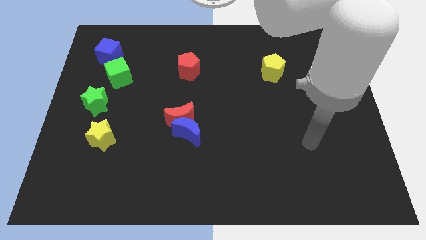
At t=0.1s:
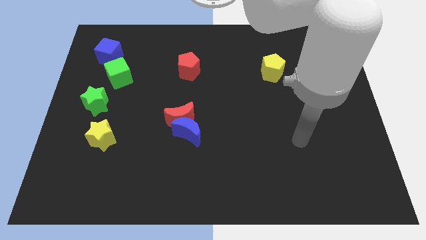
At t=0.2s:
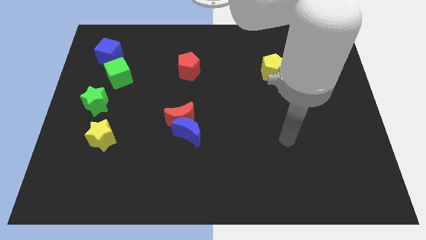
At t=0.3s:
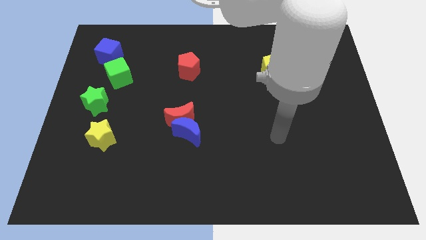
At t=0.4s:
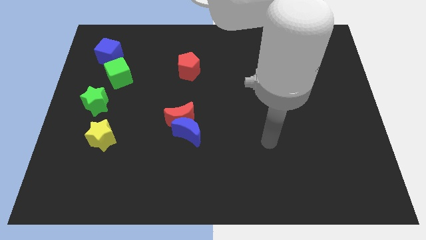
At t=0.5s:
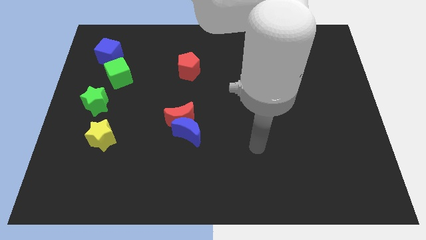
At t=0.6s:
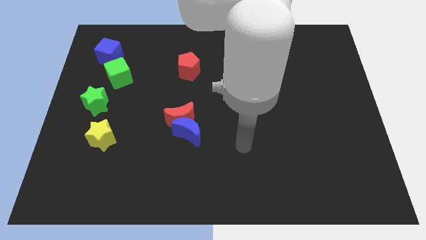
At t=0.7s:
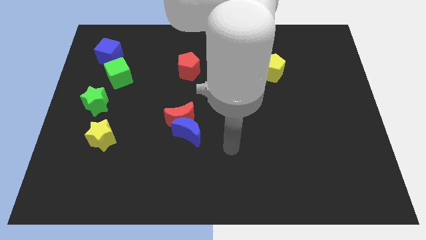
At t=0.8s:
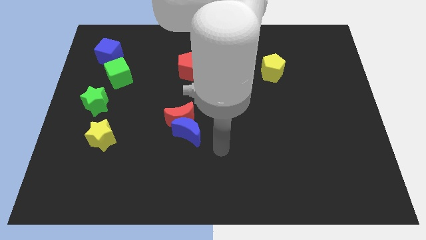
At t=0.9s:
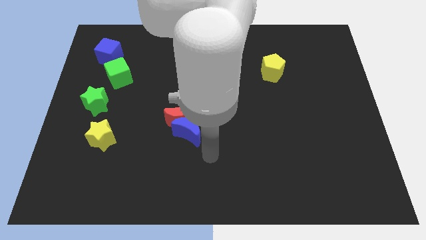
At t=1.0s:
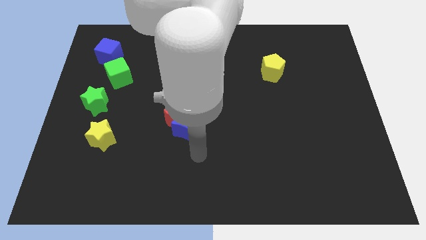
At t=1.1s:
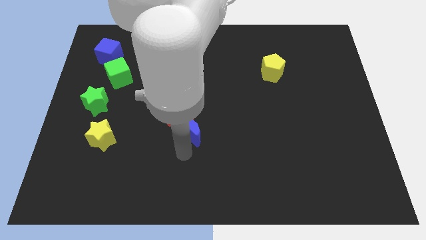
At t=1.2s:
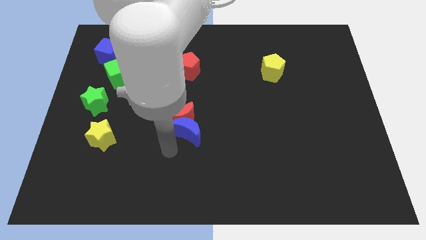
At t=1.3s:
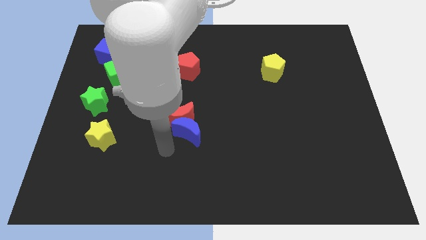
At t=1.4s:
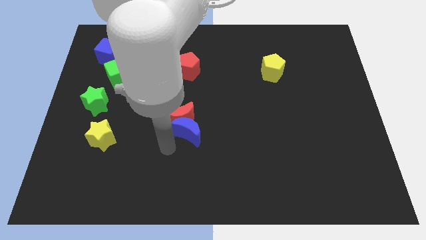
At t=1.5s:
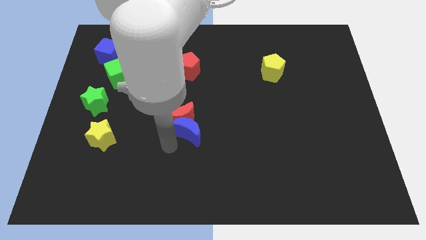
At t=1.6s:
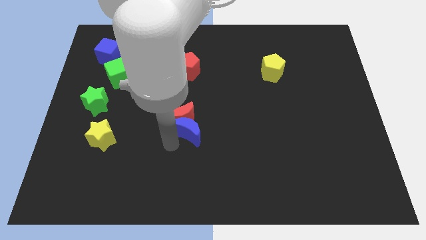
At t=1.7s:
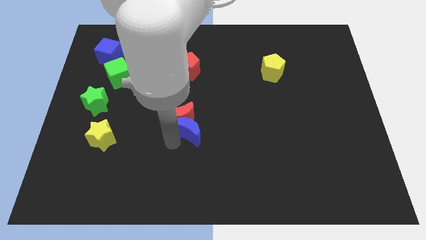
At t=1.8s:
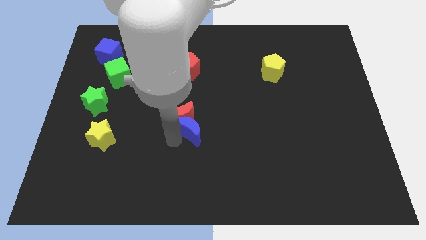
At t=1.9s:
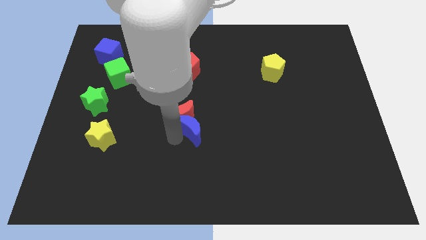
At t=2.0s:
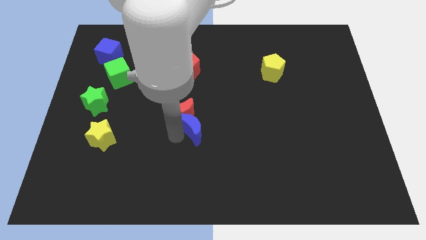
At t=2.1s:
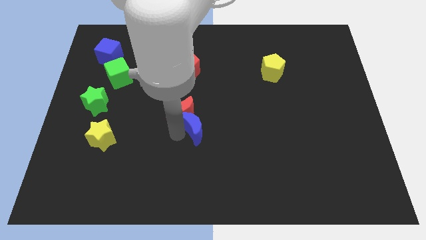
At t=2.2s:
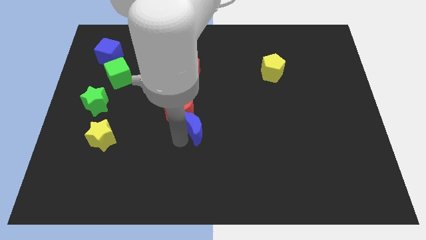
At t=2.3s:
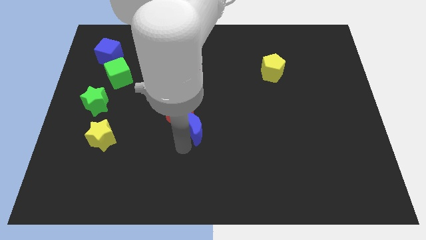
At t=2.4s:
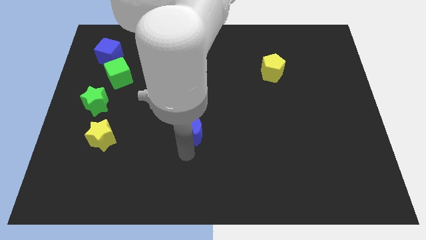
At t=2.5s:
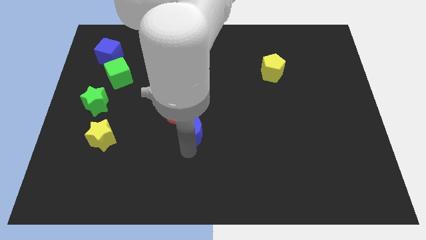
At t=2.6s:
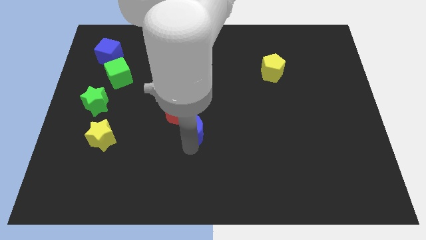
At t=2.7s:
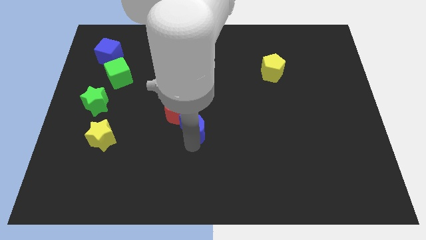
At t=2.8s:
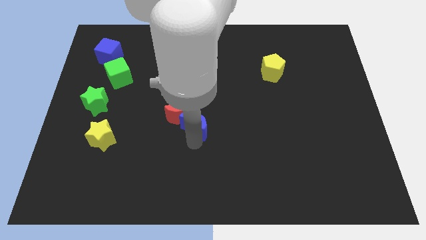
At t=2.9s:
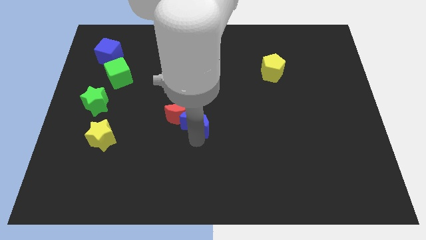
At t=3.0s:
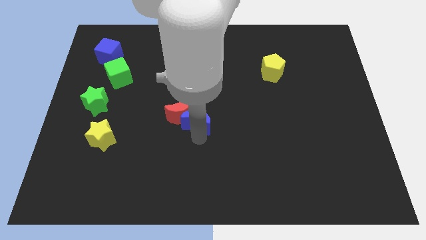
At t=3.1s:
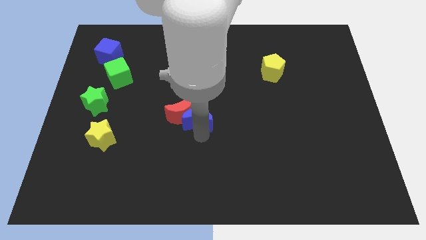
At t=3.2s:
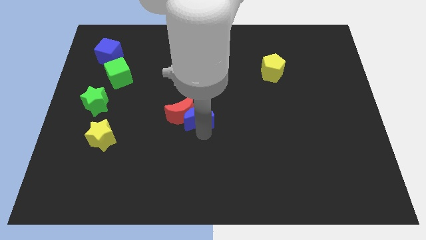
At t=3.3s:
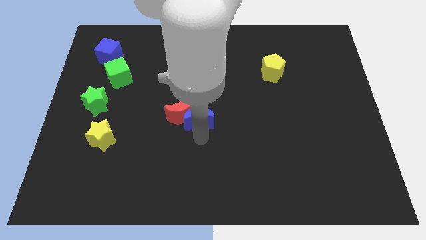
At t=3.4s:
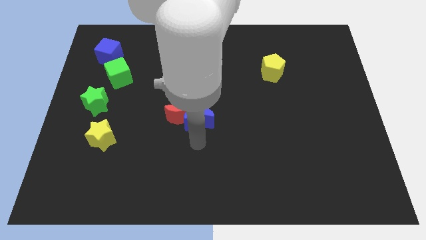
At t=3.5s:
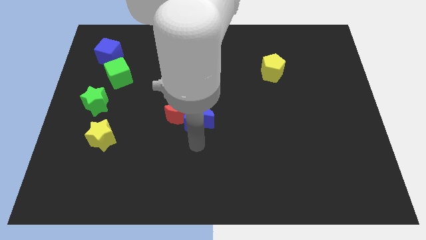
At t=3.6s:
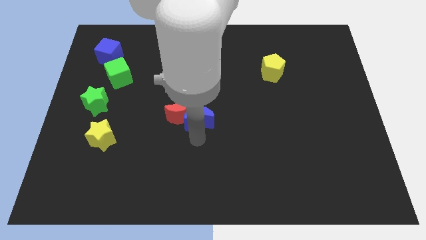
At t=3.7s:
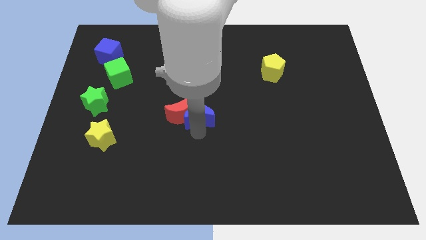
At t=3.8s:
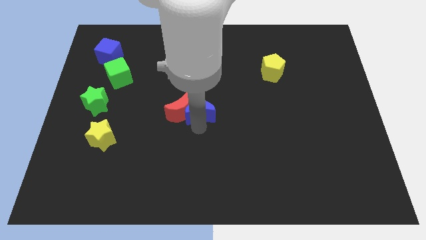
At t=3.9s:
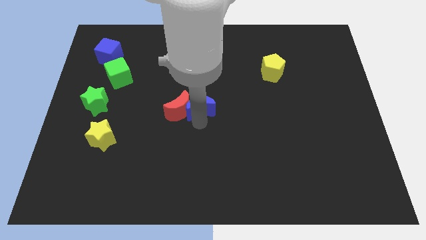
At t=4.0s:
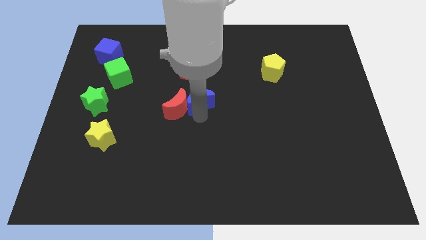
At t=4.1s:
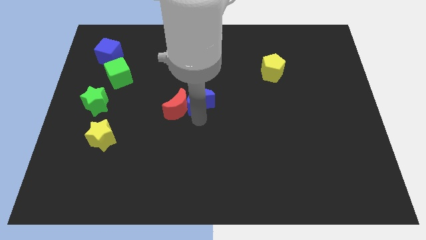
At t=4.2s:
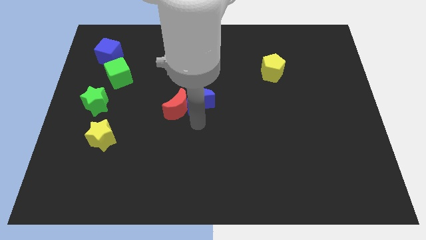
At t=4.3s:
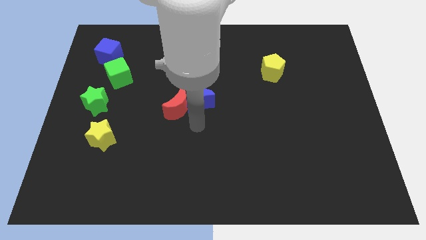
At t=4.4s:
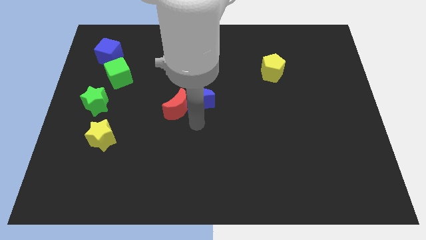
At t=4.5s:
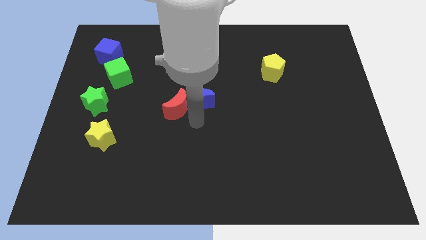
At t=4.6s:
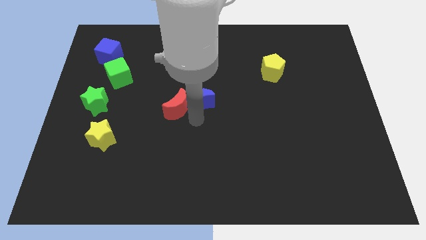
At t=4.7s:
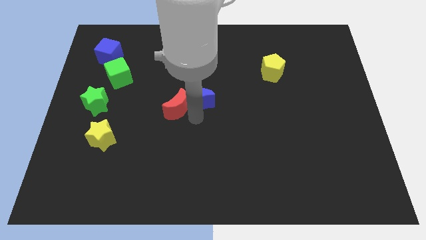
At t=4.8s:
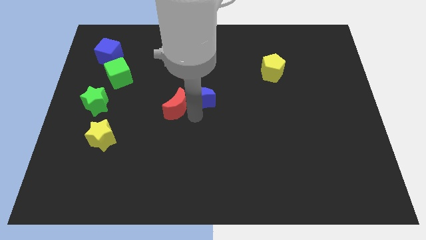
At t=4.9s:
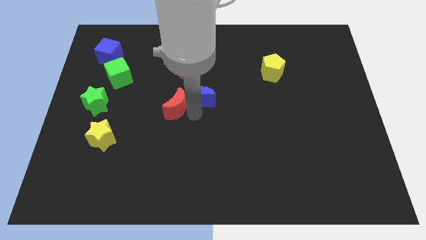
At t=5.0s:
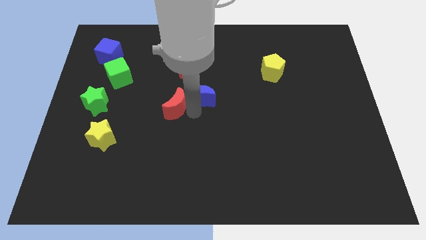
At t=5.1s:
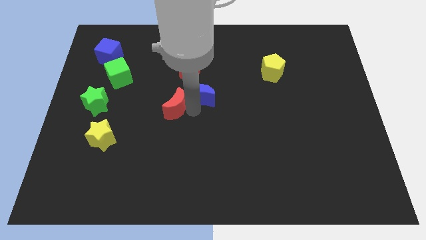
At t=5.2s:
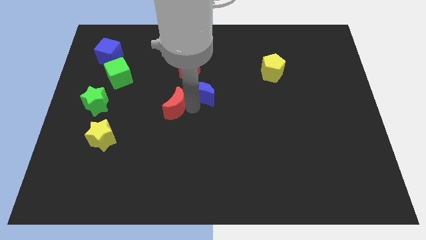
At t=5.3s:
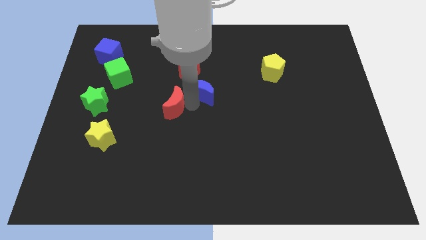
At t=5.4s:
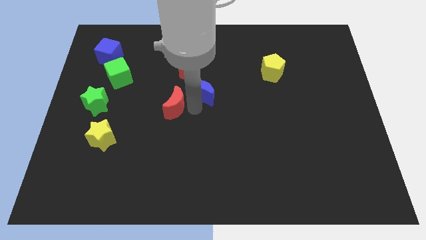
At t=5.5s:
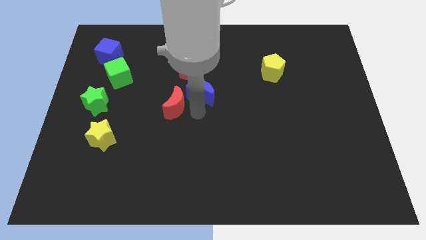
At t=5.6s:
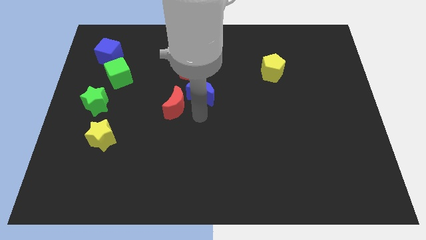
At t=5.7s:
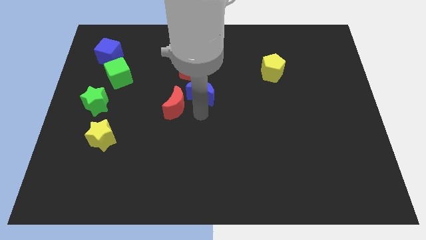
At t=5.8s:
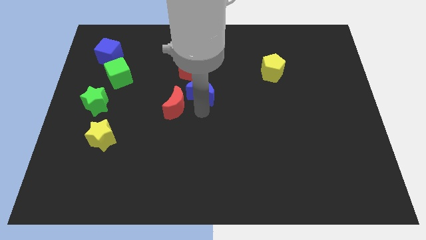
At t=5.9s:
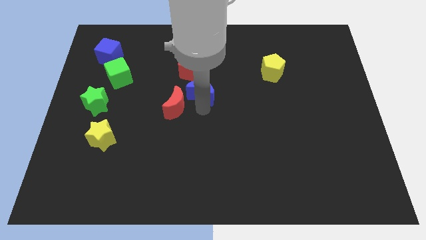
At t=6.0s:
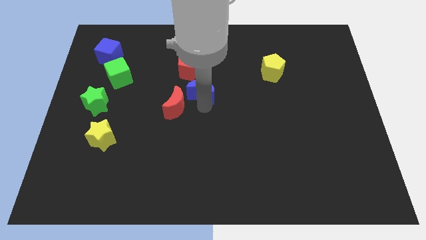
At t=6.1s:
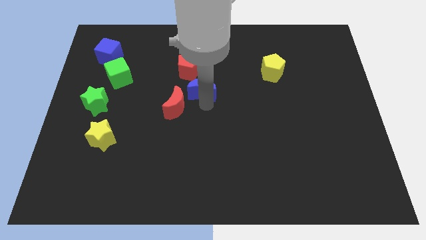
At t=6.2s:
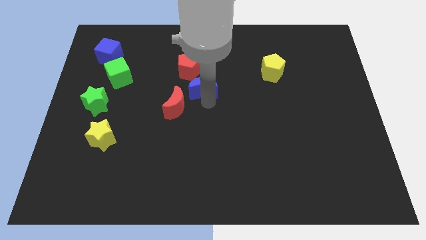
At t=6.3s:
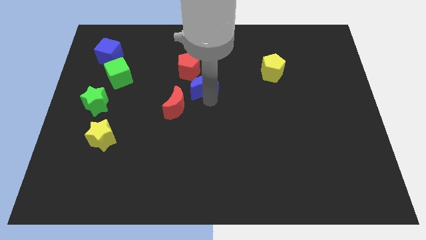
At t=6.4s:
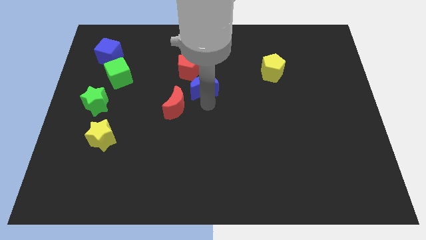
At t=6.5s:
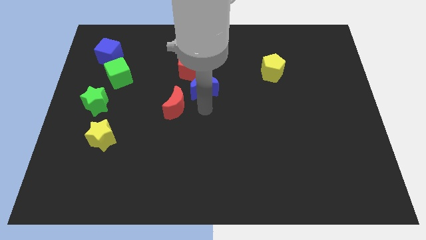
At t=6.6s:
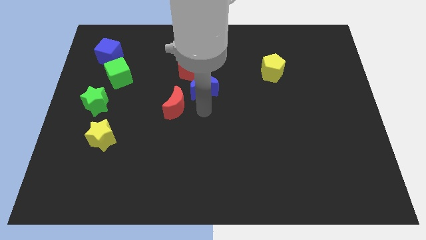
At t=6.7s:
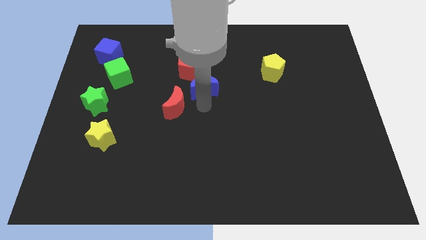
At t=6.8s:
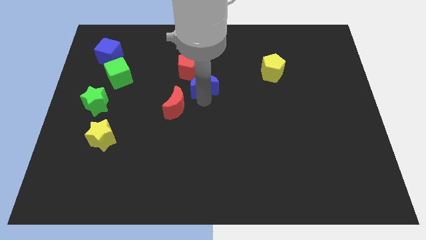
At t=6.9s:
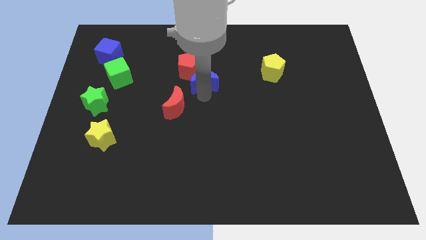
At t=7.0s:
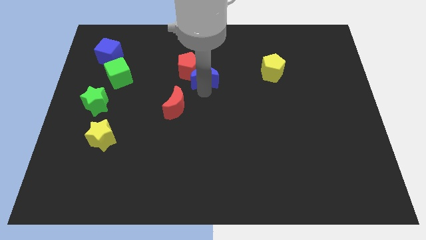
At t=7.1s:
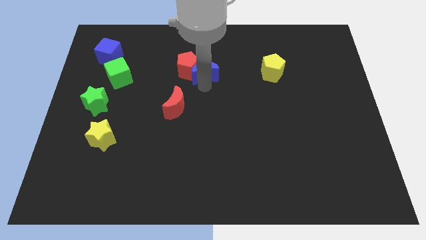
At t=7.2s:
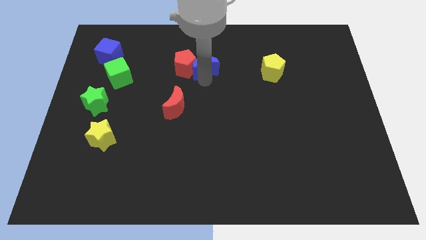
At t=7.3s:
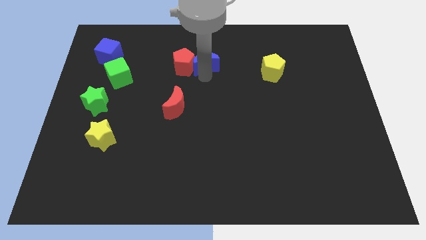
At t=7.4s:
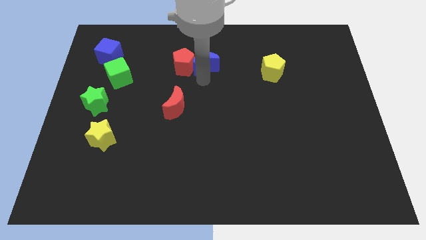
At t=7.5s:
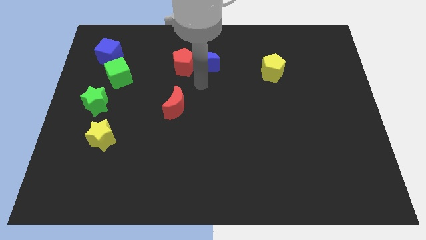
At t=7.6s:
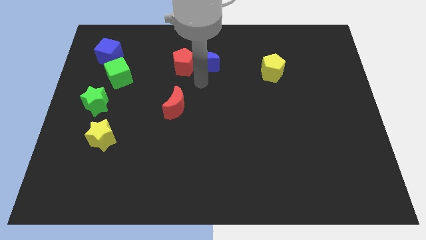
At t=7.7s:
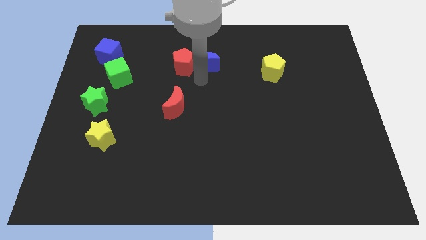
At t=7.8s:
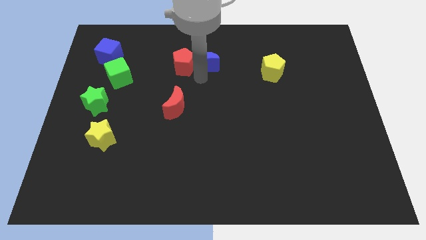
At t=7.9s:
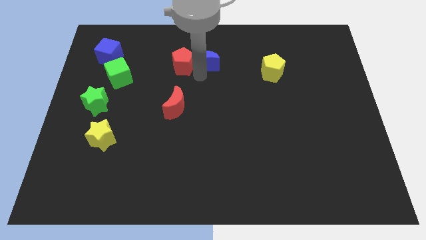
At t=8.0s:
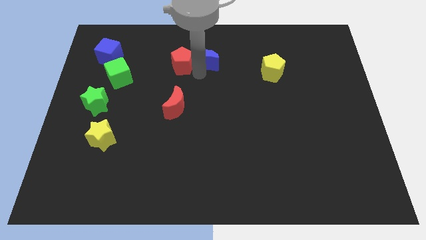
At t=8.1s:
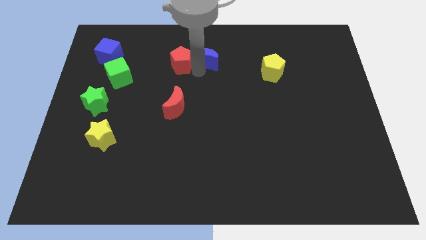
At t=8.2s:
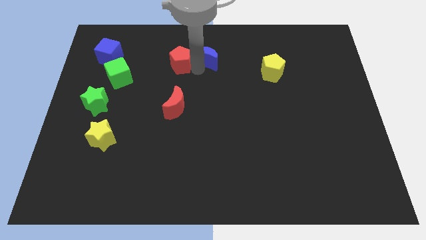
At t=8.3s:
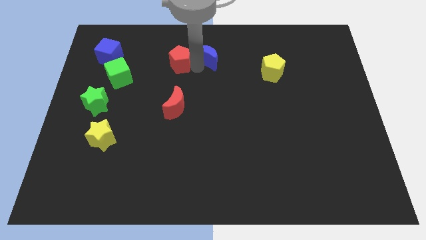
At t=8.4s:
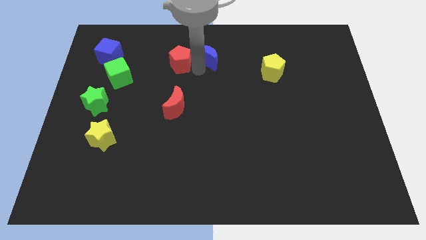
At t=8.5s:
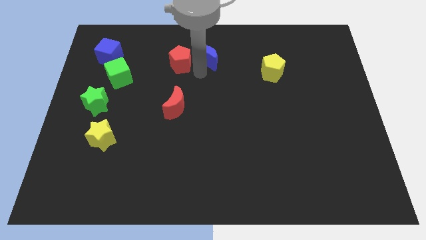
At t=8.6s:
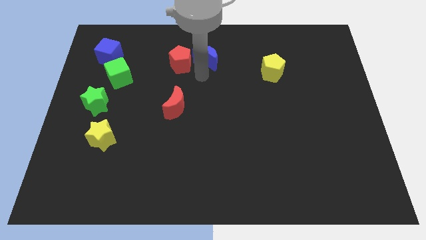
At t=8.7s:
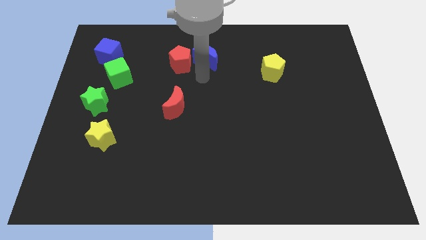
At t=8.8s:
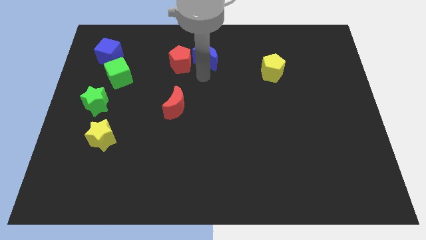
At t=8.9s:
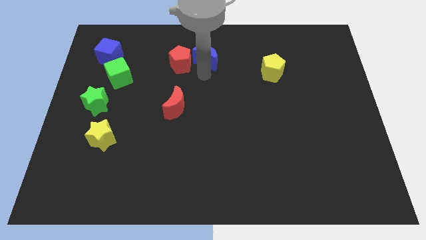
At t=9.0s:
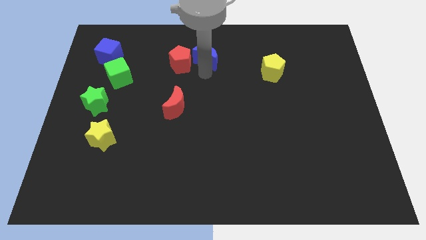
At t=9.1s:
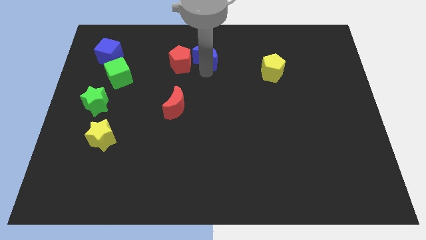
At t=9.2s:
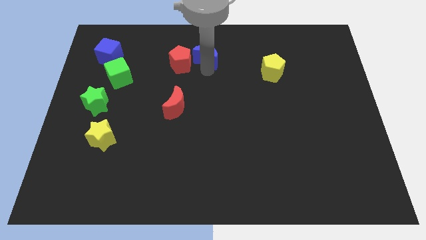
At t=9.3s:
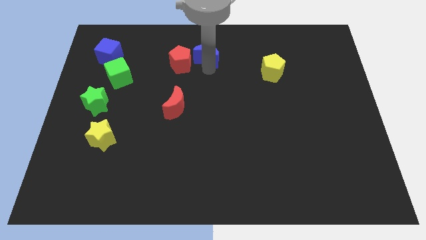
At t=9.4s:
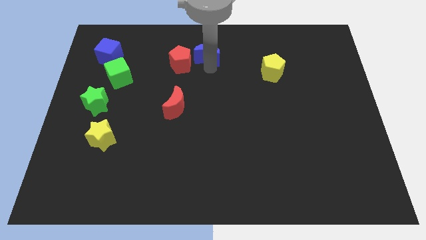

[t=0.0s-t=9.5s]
push the blue moon to the towards your base
